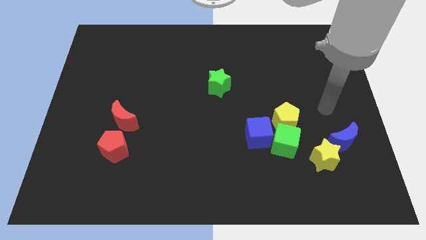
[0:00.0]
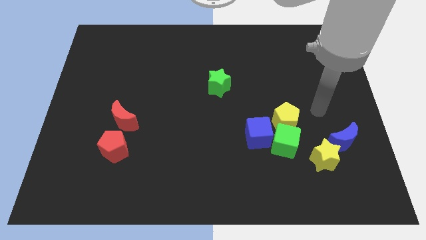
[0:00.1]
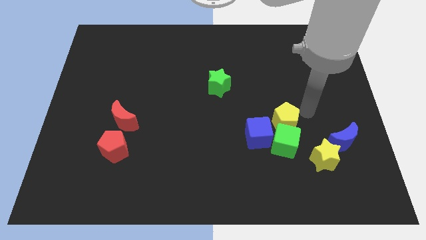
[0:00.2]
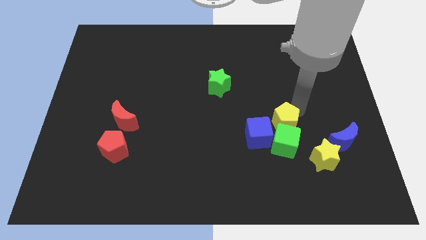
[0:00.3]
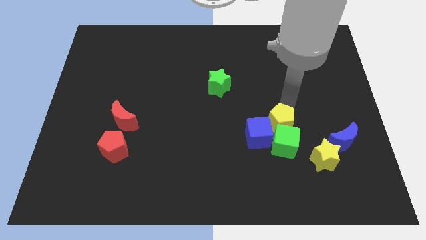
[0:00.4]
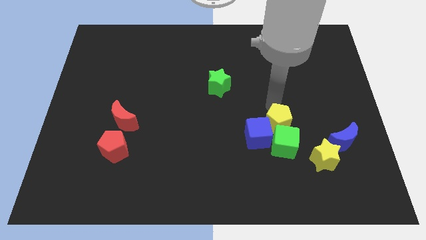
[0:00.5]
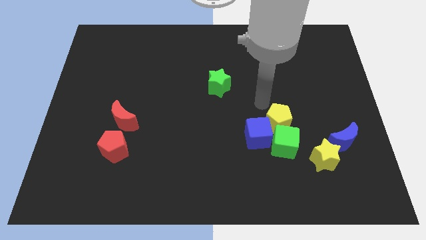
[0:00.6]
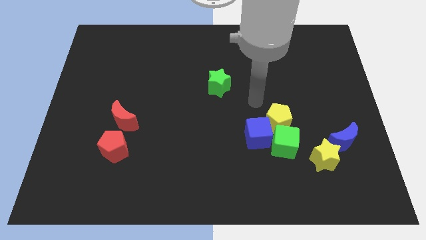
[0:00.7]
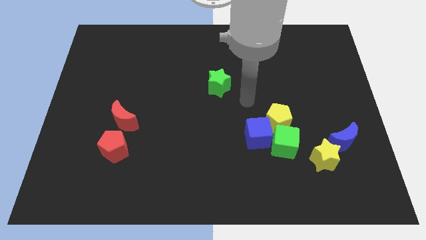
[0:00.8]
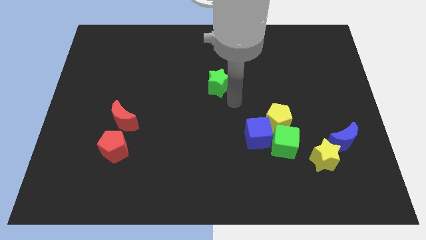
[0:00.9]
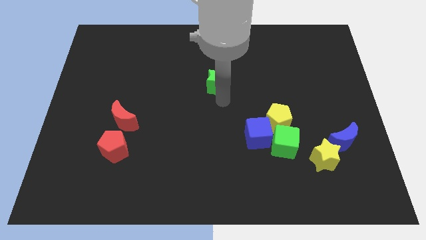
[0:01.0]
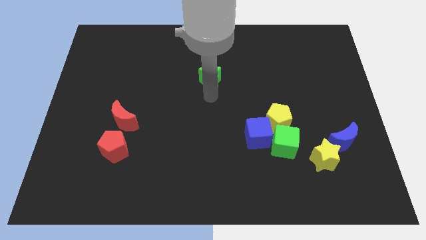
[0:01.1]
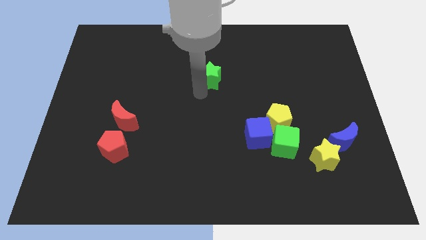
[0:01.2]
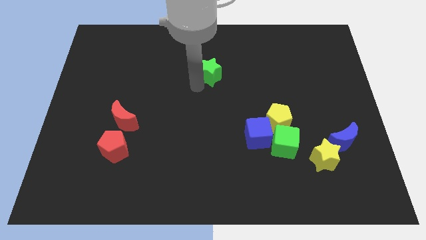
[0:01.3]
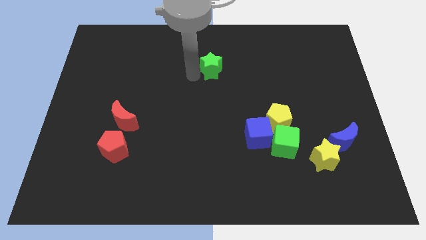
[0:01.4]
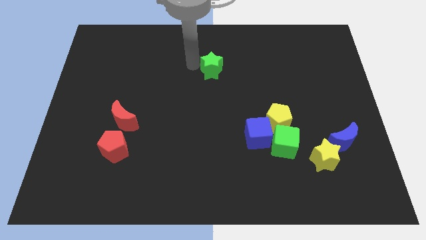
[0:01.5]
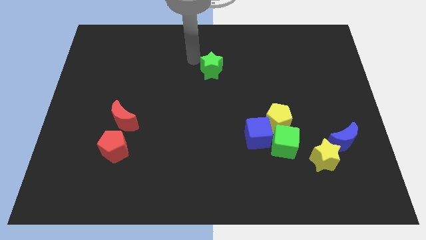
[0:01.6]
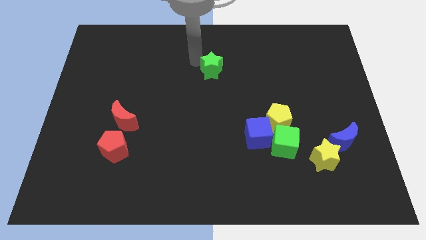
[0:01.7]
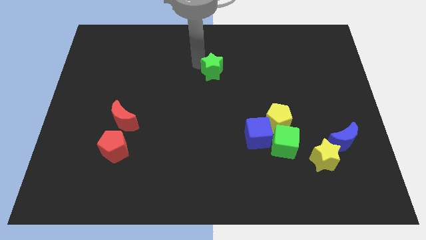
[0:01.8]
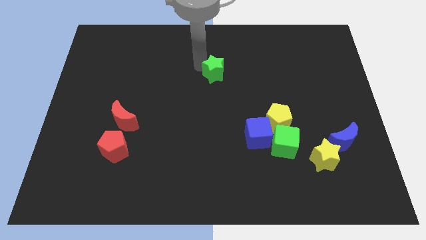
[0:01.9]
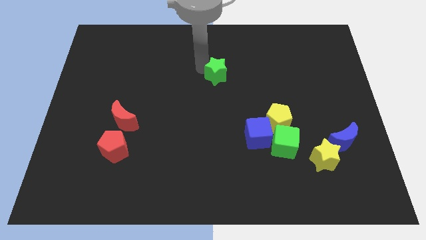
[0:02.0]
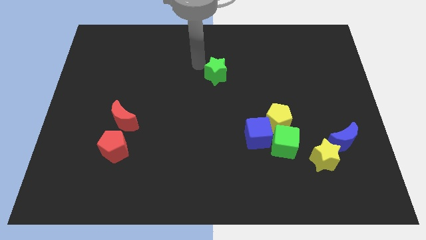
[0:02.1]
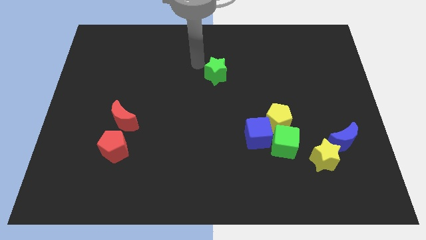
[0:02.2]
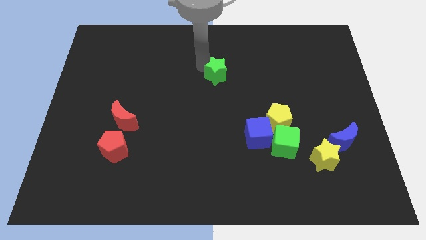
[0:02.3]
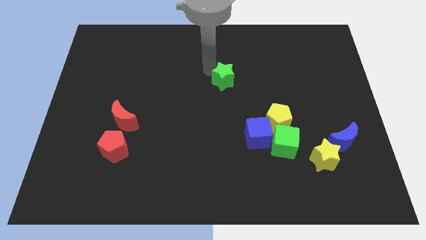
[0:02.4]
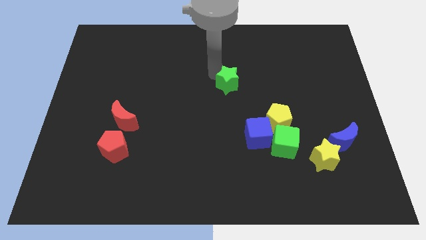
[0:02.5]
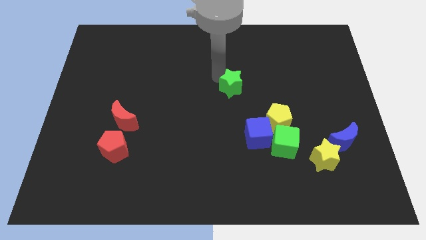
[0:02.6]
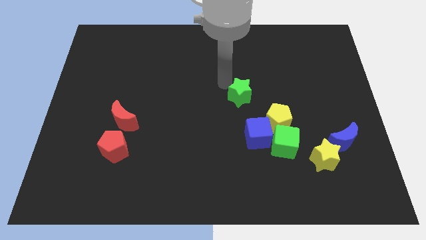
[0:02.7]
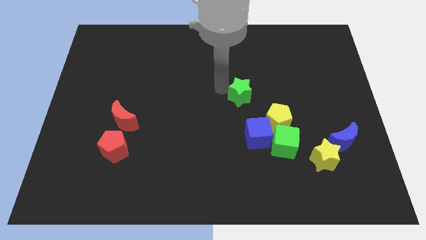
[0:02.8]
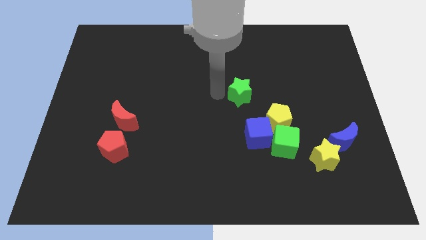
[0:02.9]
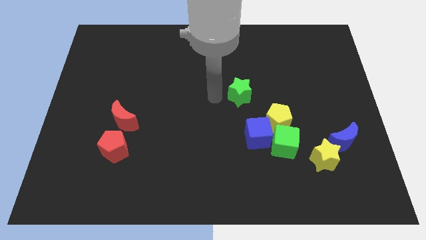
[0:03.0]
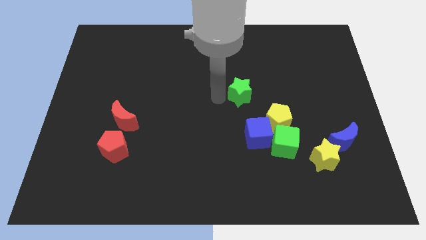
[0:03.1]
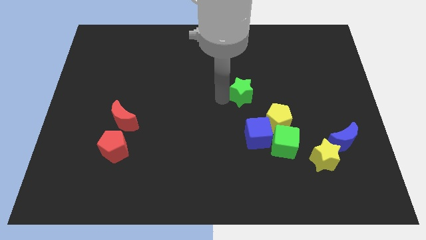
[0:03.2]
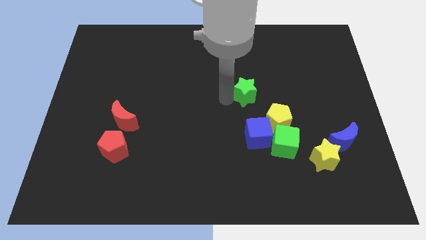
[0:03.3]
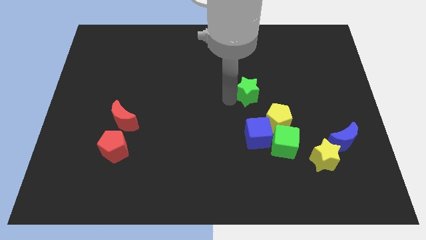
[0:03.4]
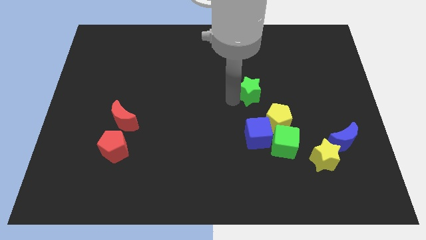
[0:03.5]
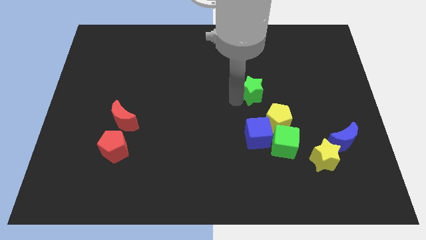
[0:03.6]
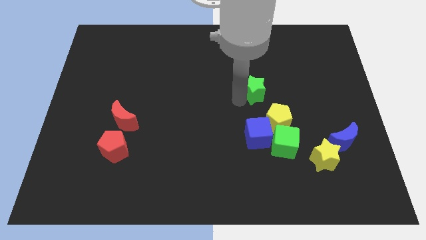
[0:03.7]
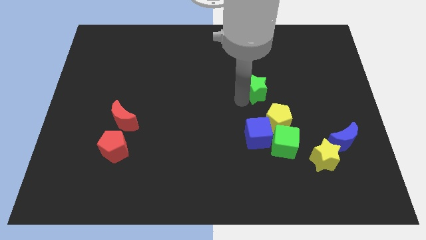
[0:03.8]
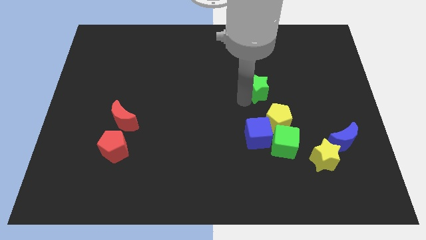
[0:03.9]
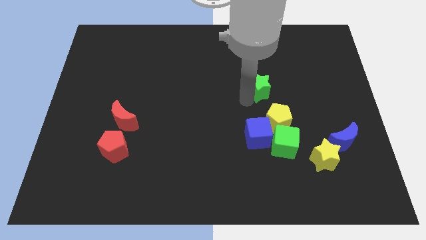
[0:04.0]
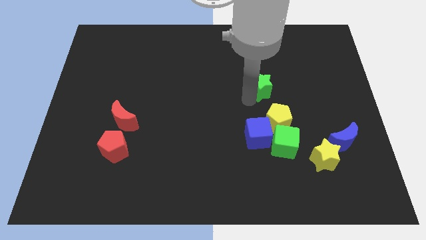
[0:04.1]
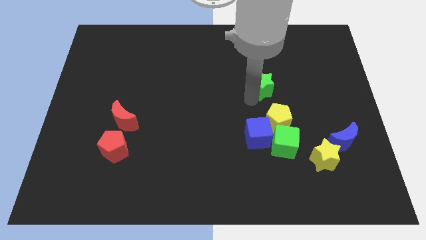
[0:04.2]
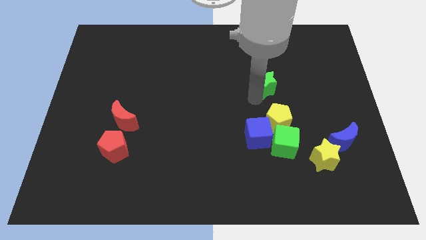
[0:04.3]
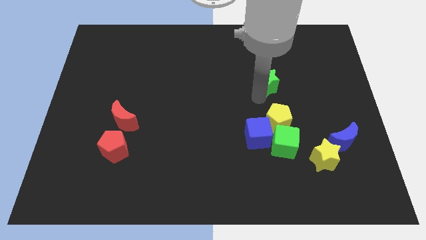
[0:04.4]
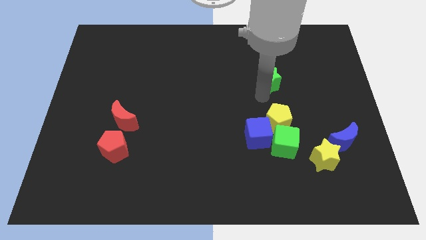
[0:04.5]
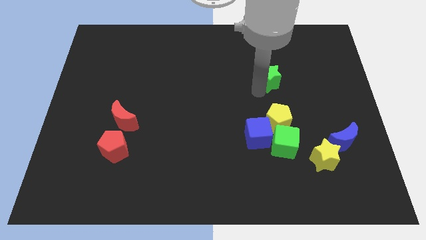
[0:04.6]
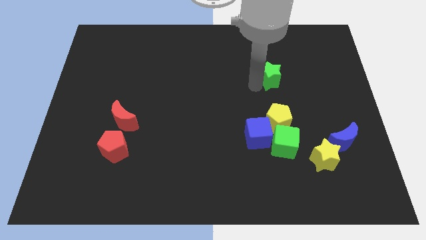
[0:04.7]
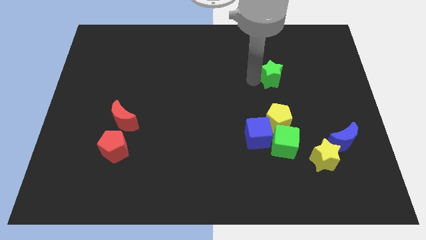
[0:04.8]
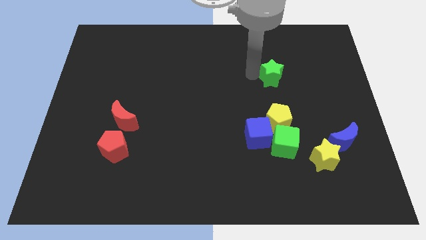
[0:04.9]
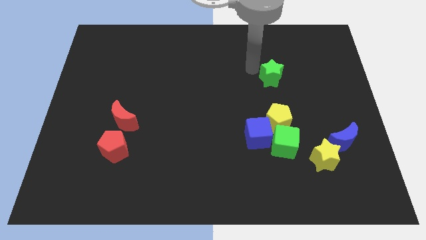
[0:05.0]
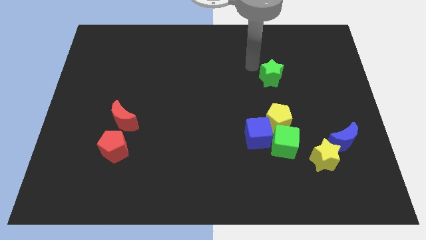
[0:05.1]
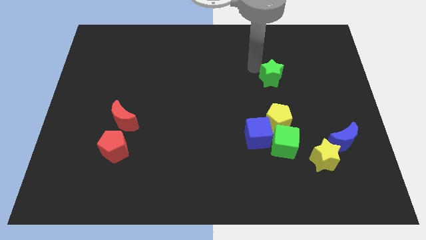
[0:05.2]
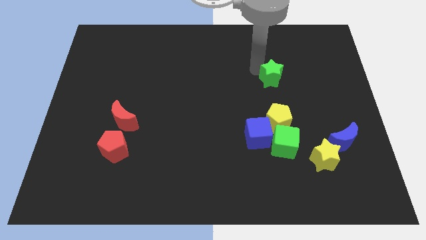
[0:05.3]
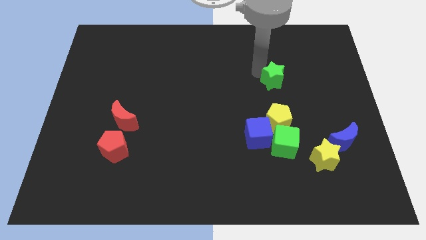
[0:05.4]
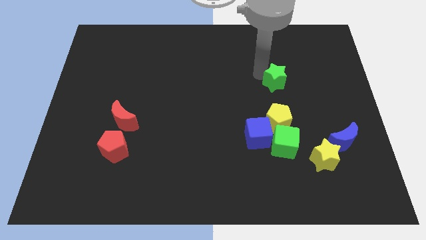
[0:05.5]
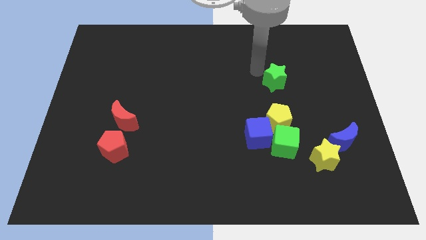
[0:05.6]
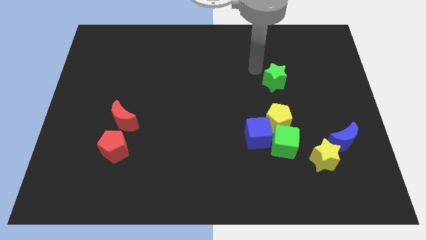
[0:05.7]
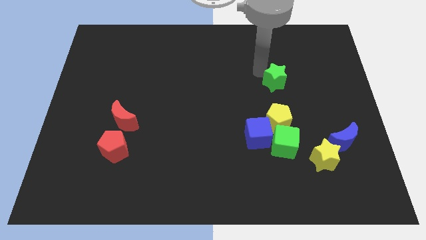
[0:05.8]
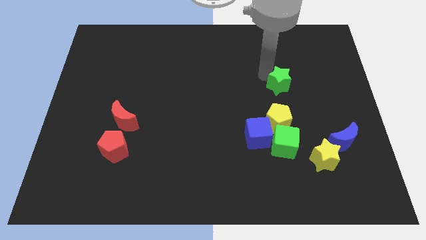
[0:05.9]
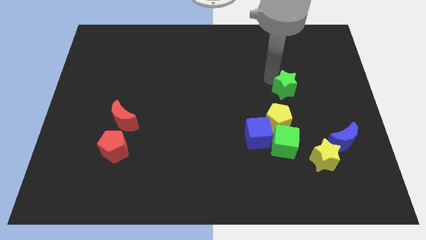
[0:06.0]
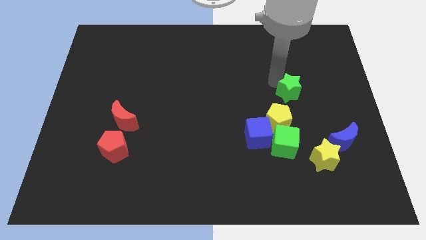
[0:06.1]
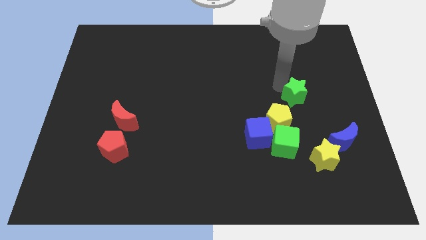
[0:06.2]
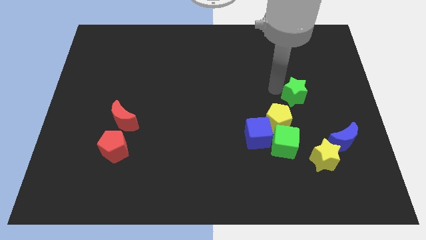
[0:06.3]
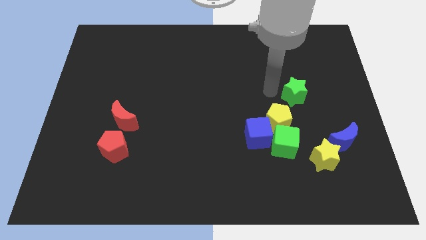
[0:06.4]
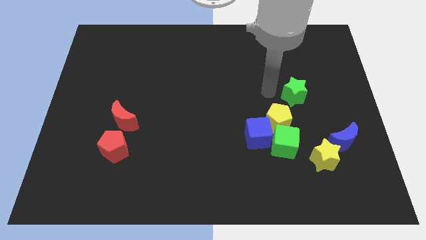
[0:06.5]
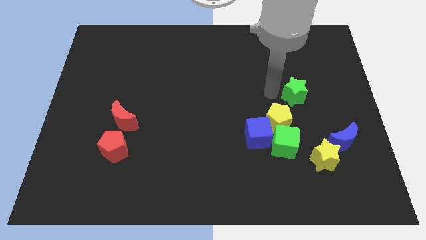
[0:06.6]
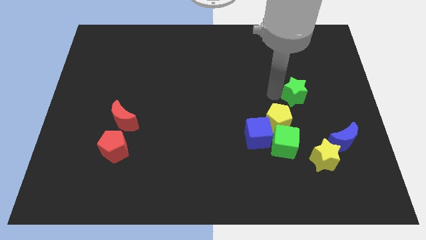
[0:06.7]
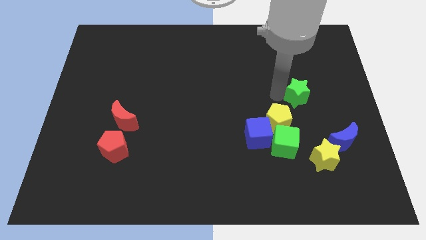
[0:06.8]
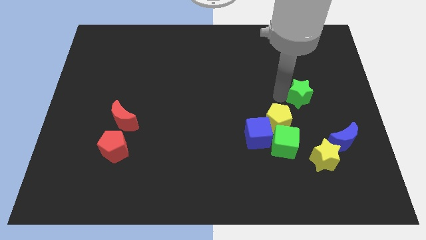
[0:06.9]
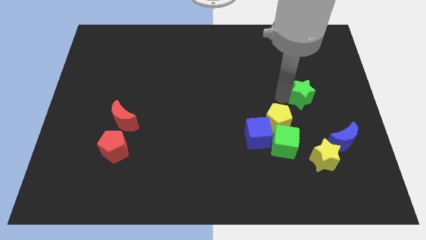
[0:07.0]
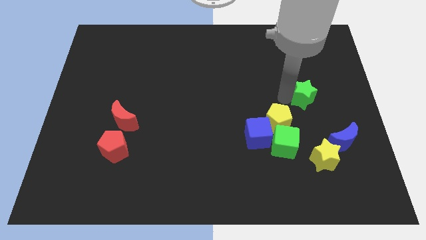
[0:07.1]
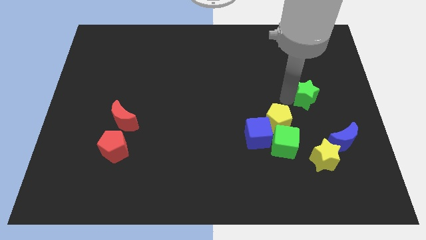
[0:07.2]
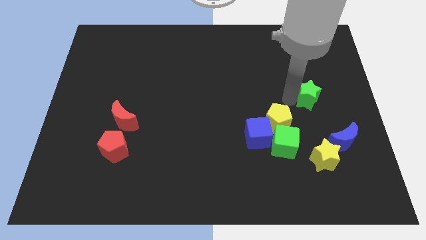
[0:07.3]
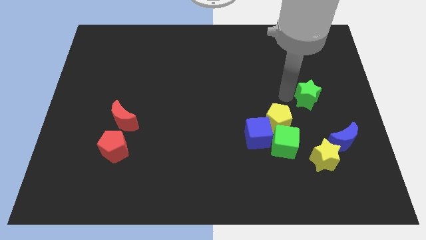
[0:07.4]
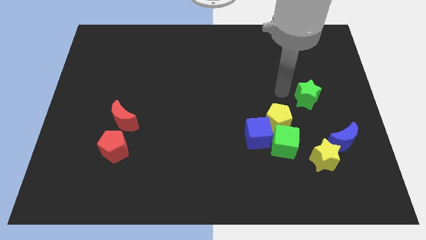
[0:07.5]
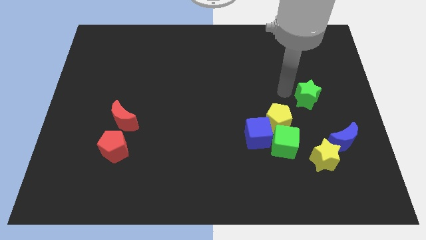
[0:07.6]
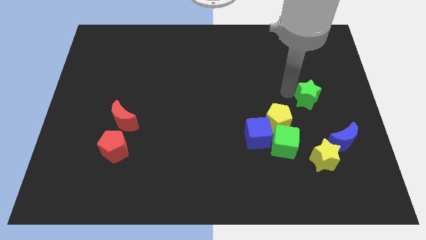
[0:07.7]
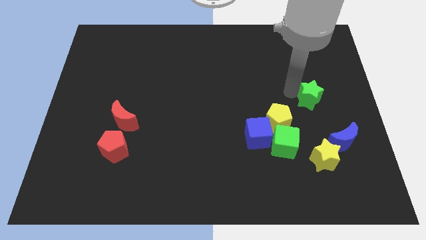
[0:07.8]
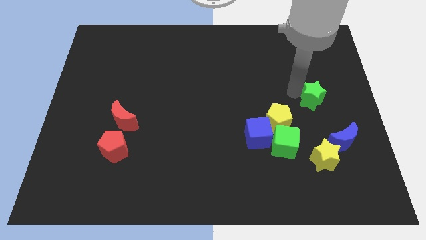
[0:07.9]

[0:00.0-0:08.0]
push the green star above the blue moon
